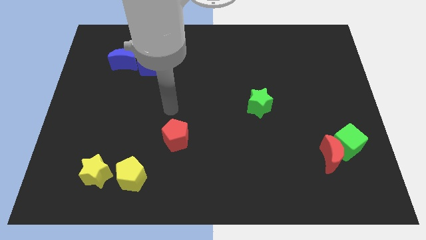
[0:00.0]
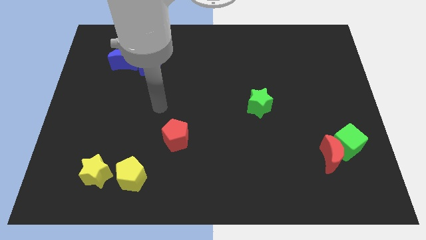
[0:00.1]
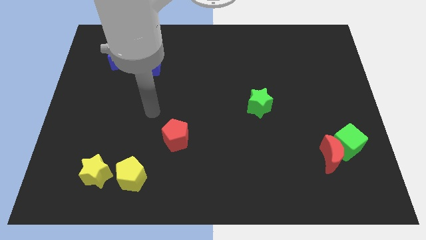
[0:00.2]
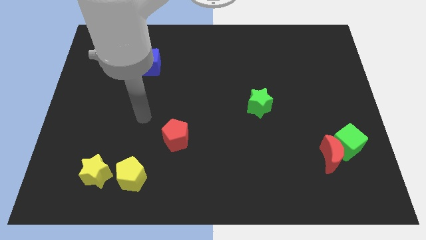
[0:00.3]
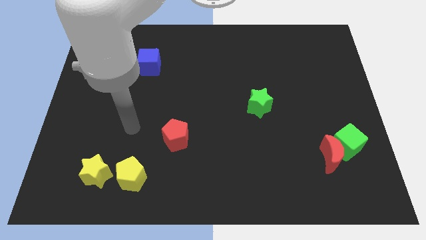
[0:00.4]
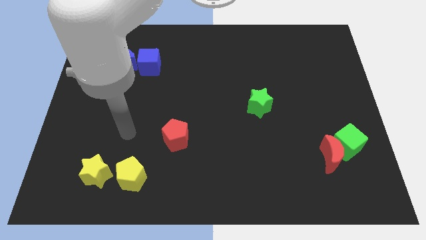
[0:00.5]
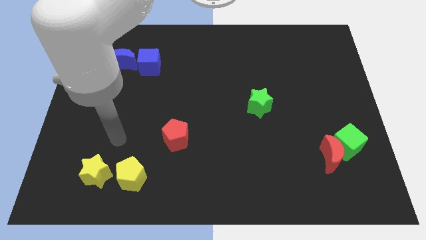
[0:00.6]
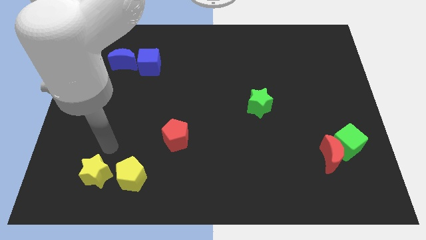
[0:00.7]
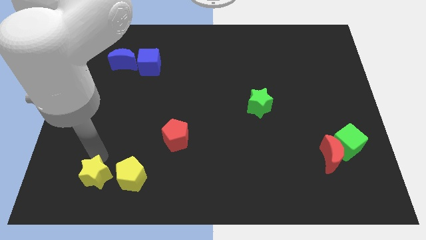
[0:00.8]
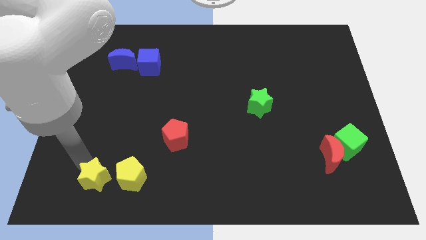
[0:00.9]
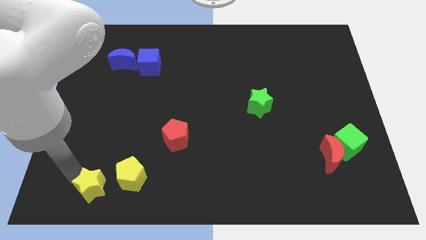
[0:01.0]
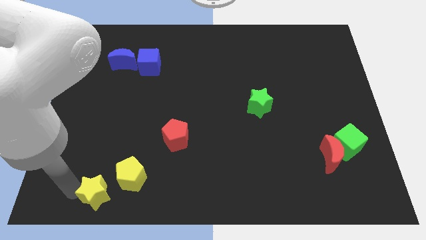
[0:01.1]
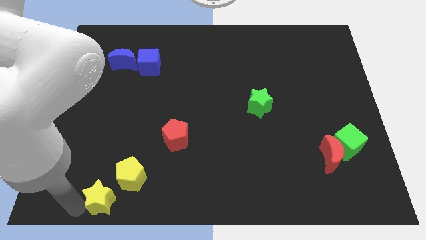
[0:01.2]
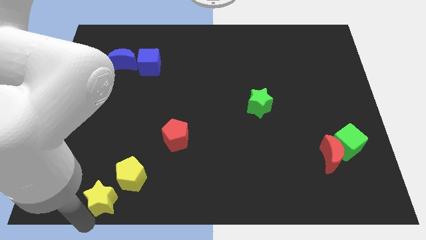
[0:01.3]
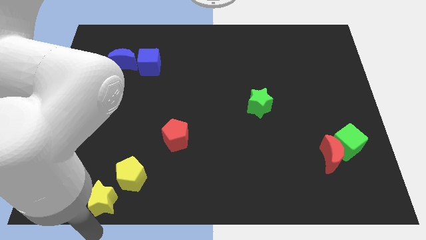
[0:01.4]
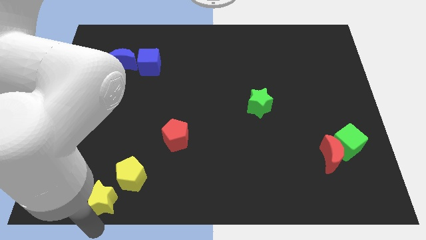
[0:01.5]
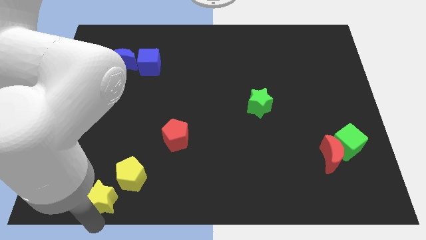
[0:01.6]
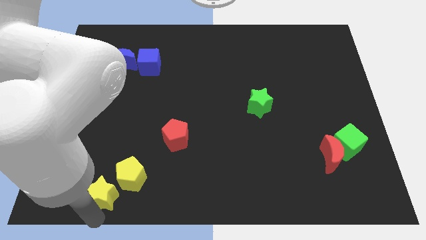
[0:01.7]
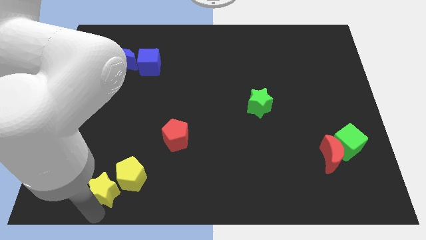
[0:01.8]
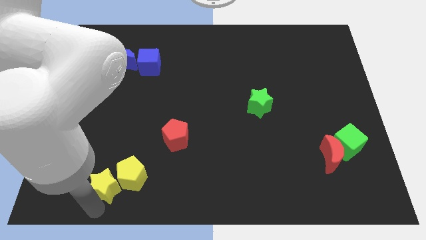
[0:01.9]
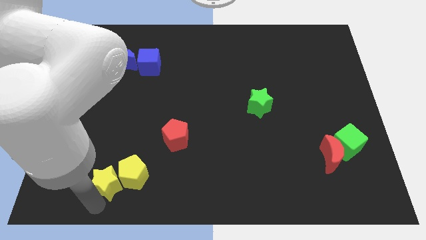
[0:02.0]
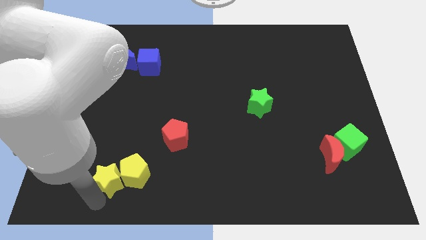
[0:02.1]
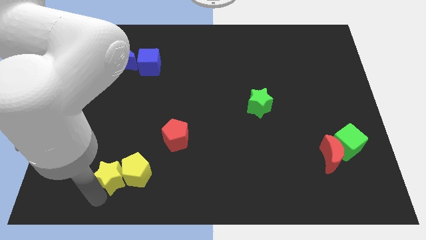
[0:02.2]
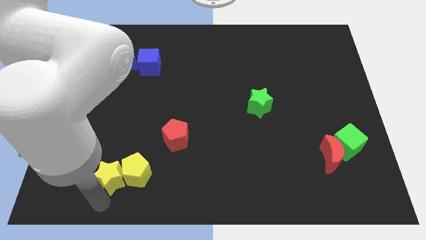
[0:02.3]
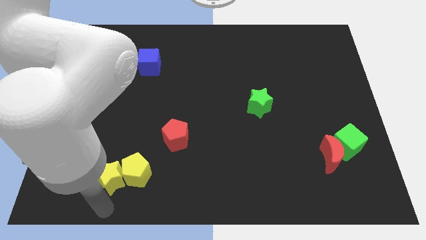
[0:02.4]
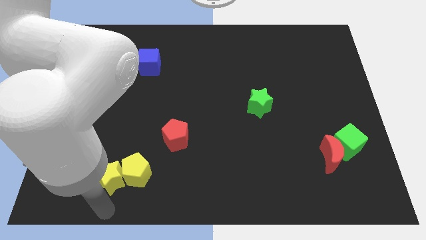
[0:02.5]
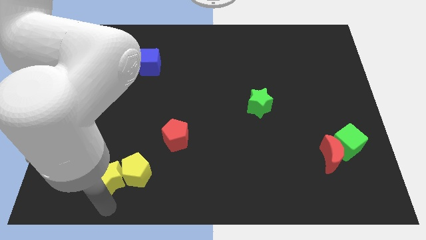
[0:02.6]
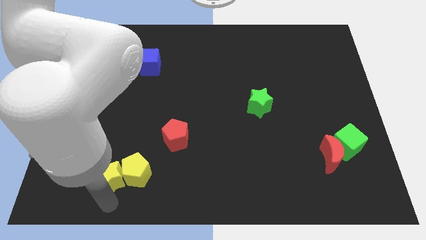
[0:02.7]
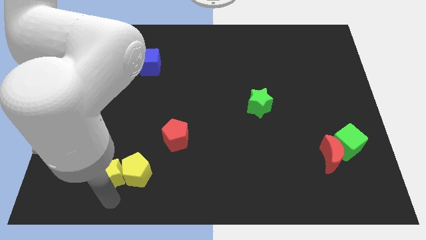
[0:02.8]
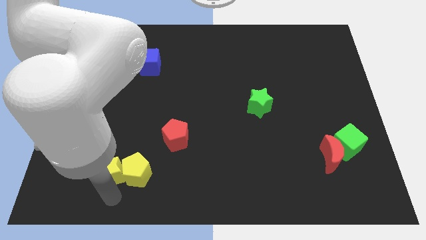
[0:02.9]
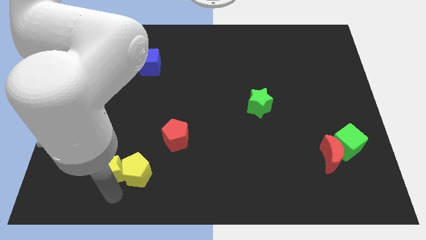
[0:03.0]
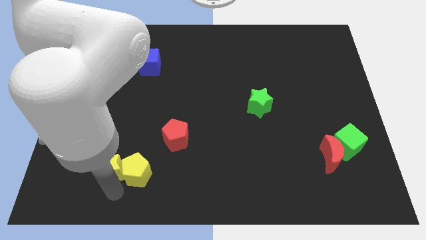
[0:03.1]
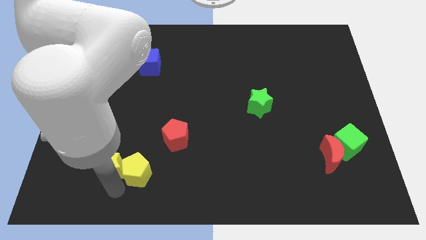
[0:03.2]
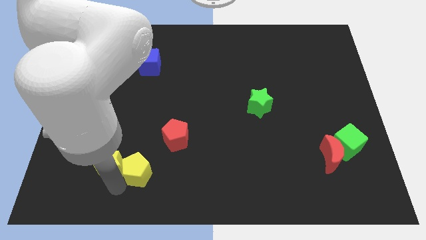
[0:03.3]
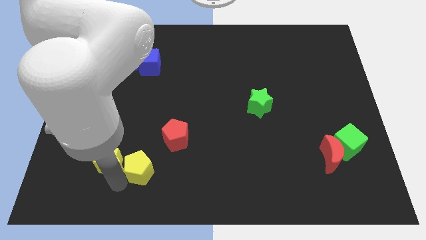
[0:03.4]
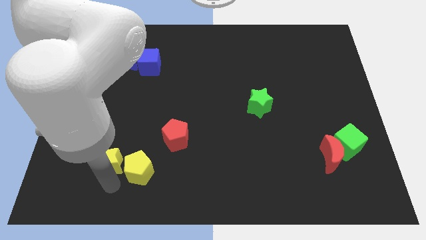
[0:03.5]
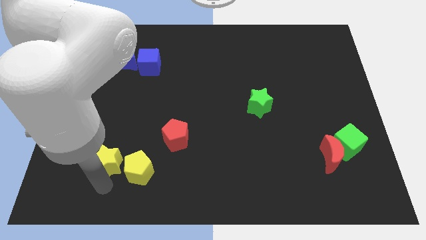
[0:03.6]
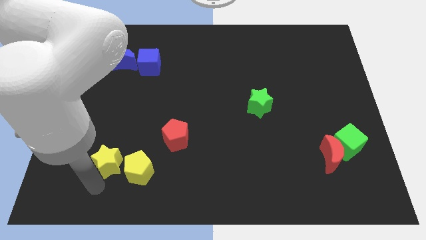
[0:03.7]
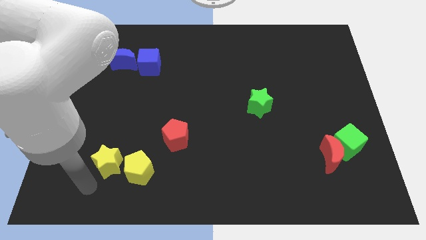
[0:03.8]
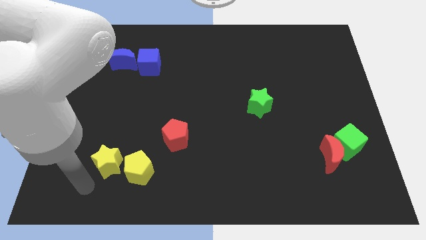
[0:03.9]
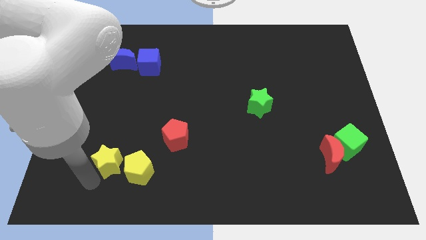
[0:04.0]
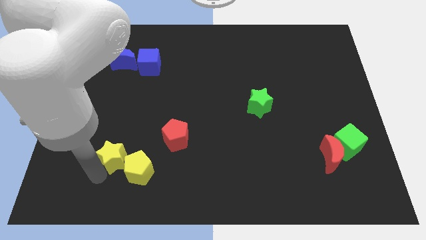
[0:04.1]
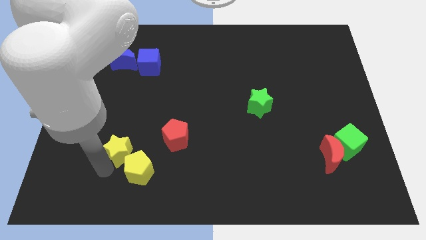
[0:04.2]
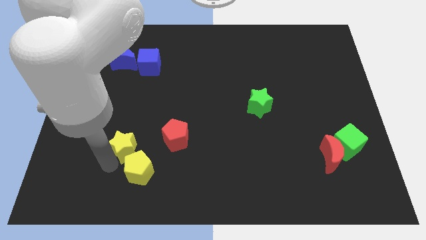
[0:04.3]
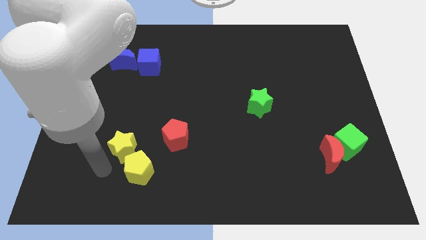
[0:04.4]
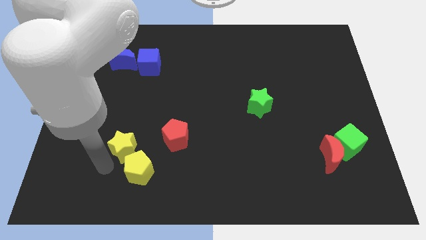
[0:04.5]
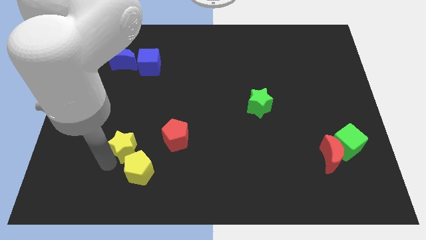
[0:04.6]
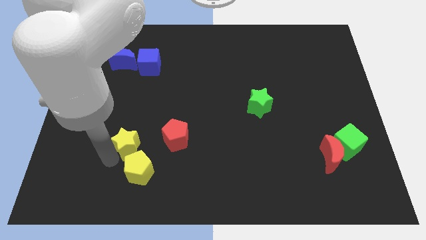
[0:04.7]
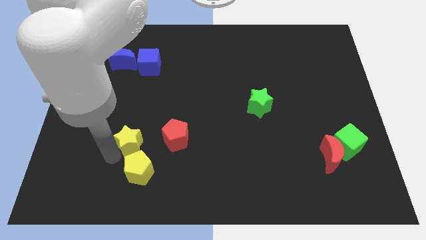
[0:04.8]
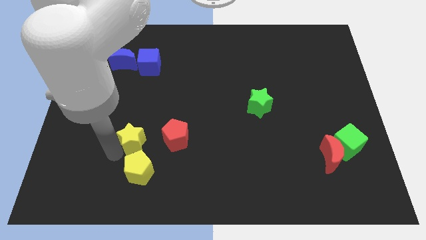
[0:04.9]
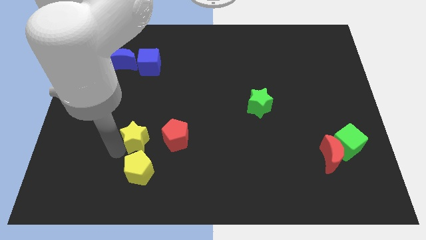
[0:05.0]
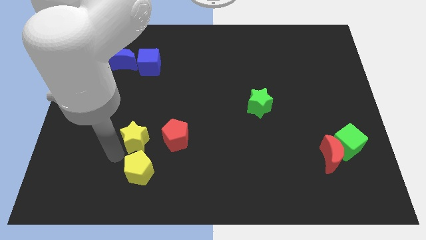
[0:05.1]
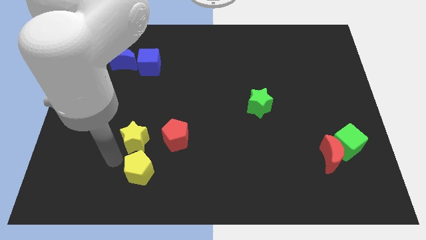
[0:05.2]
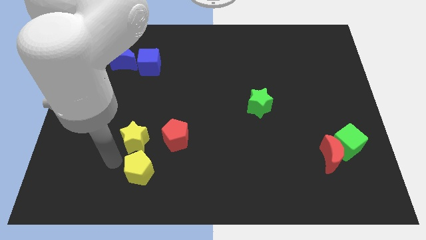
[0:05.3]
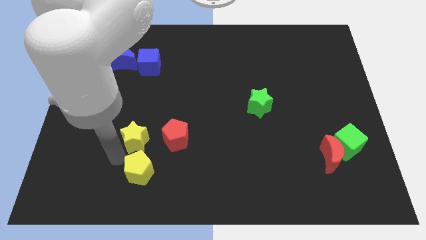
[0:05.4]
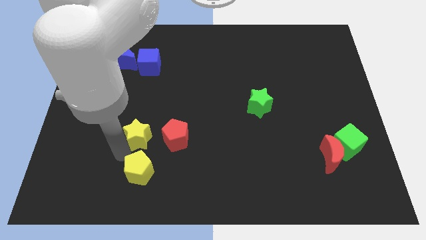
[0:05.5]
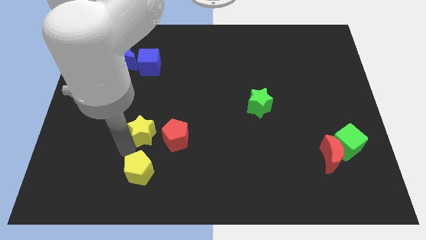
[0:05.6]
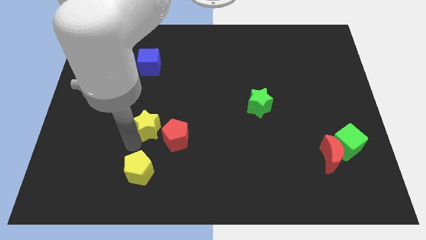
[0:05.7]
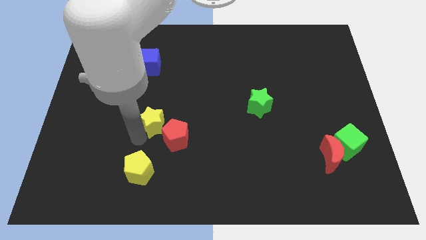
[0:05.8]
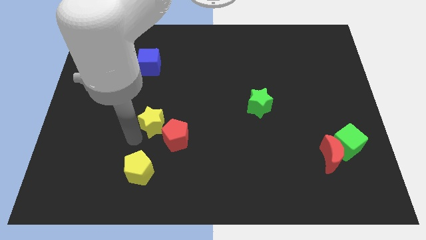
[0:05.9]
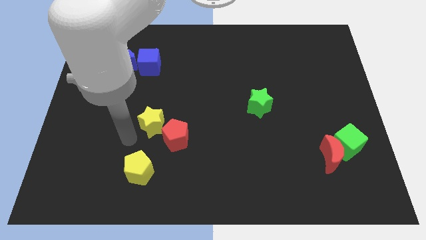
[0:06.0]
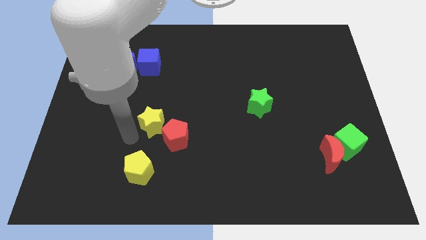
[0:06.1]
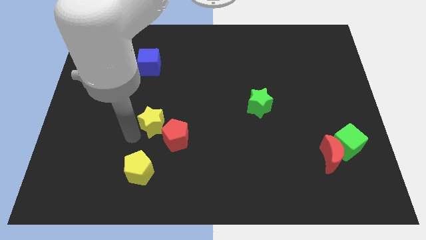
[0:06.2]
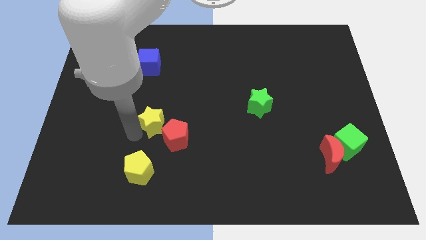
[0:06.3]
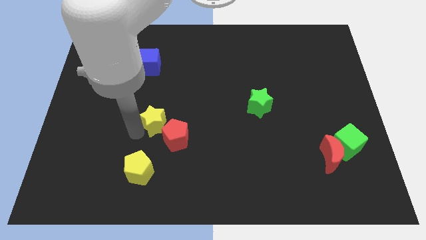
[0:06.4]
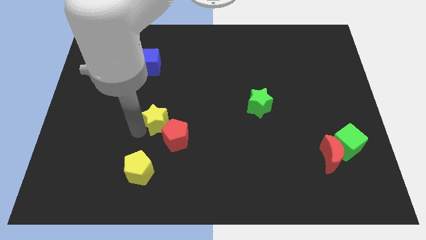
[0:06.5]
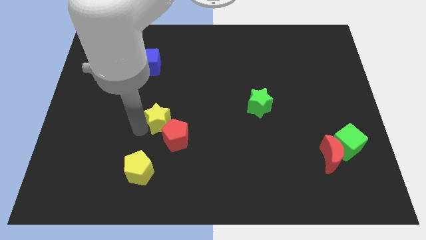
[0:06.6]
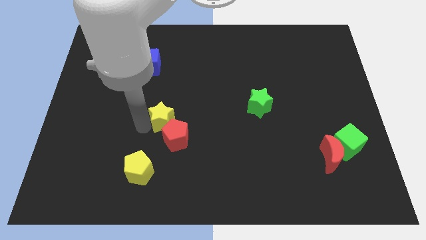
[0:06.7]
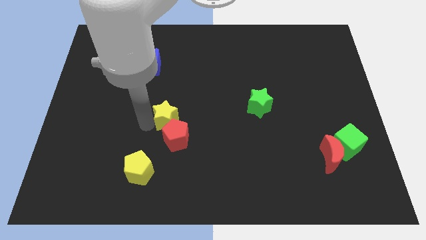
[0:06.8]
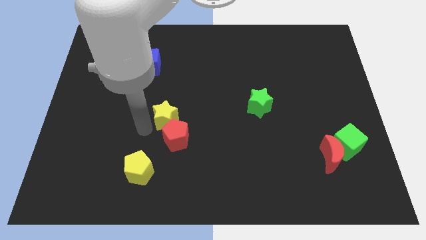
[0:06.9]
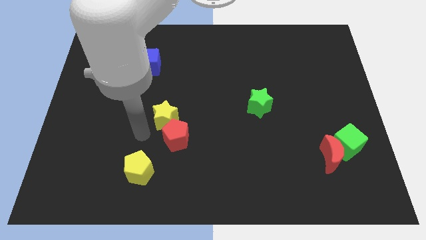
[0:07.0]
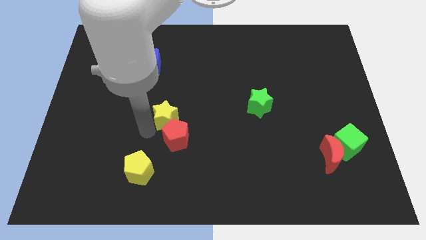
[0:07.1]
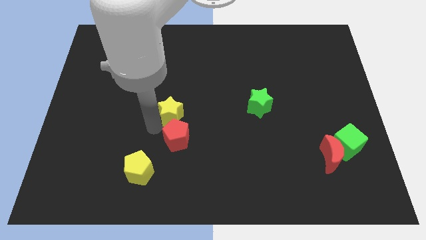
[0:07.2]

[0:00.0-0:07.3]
move the yellow star upwards and then to the right

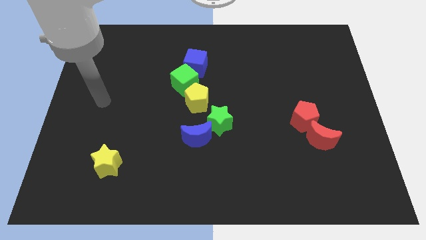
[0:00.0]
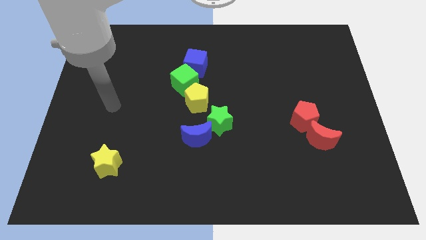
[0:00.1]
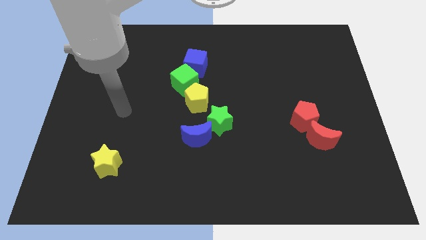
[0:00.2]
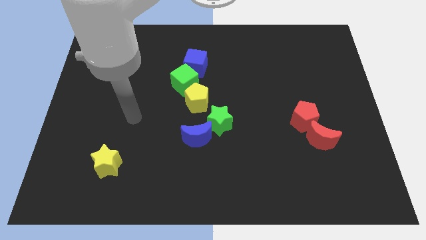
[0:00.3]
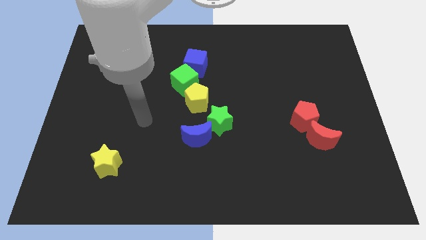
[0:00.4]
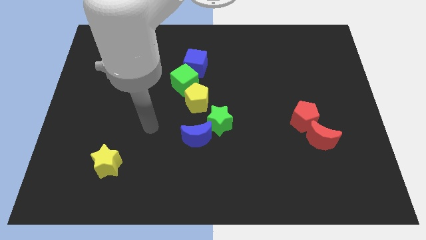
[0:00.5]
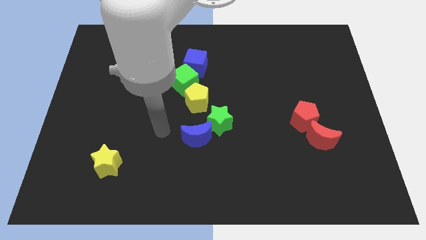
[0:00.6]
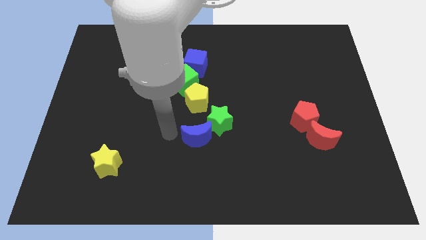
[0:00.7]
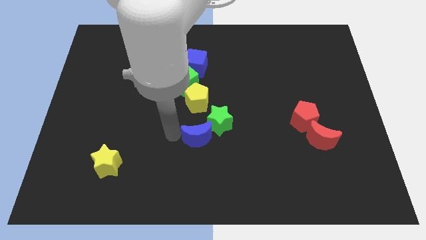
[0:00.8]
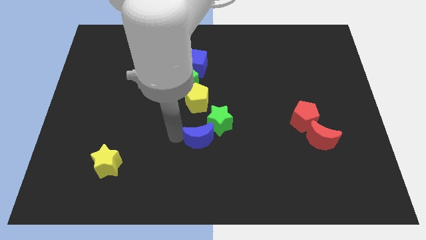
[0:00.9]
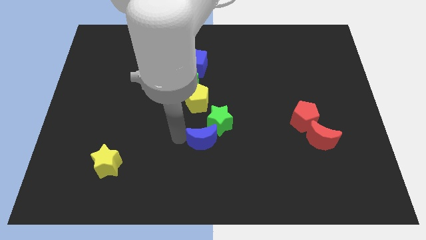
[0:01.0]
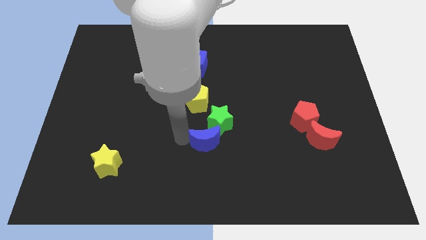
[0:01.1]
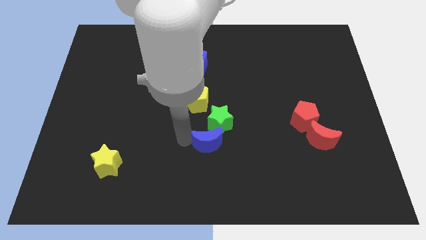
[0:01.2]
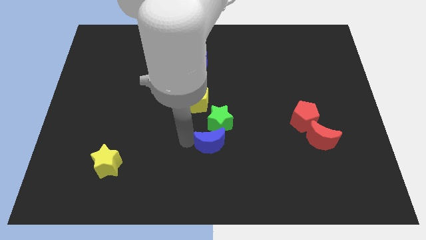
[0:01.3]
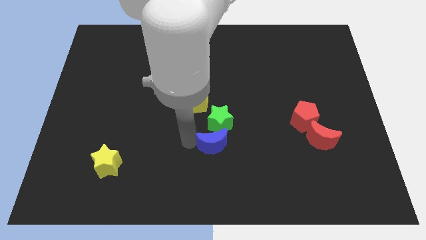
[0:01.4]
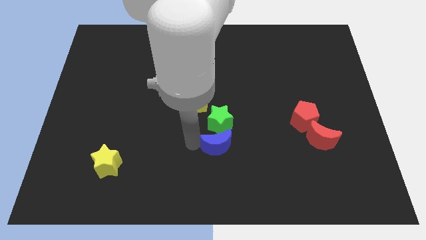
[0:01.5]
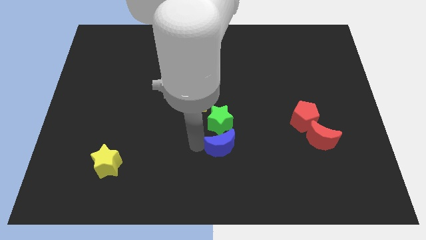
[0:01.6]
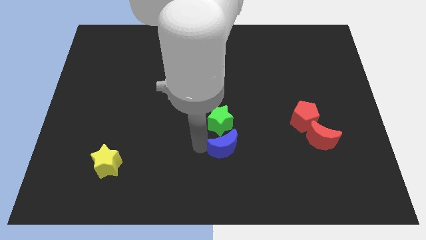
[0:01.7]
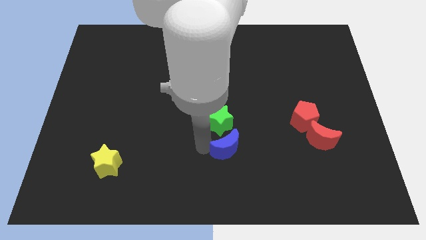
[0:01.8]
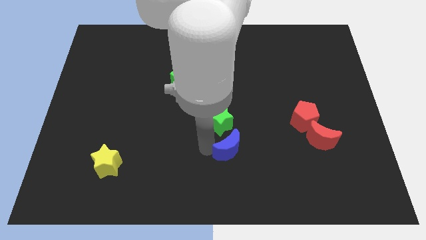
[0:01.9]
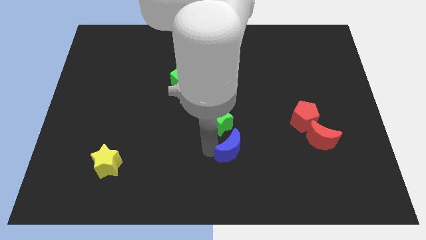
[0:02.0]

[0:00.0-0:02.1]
slightly push the blue moon right
